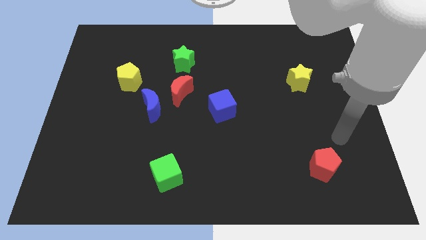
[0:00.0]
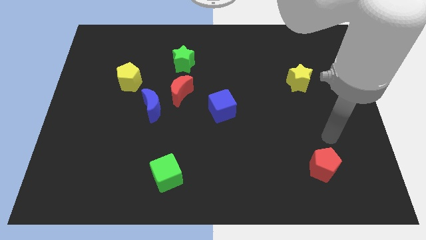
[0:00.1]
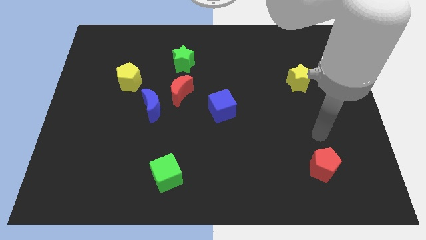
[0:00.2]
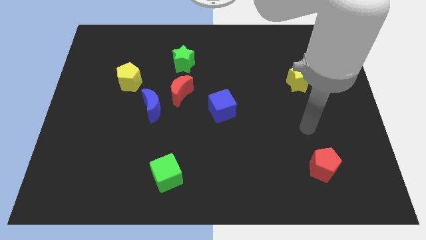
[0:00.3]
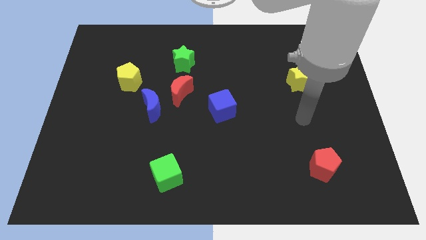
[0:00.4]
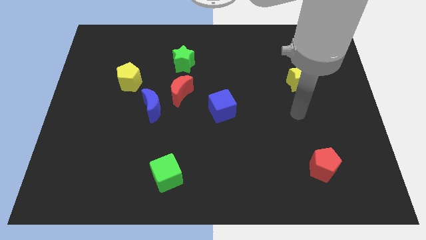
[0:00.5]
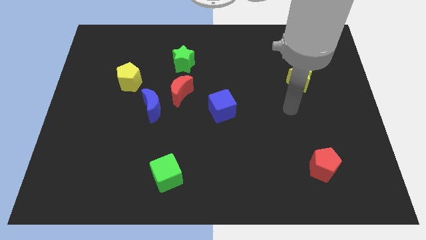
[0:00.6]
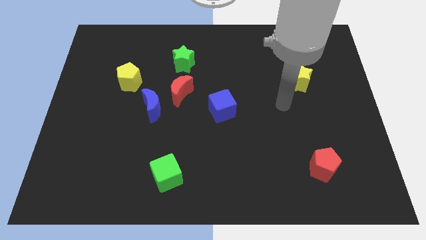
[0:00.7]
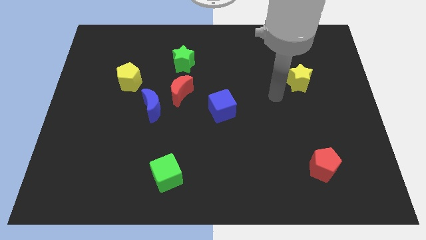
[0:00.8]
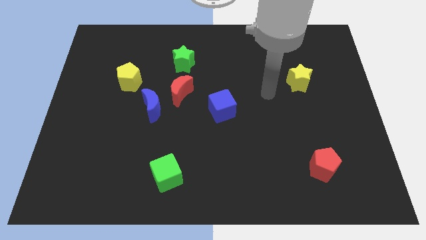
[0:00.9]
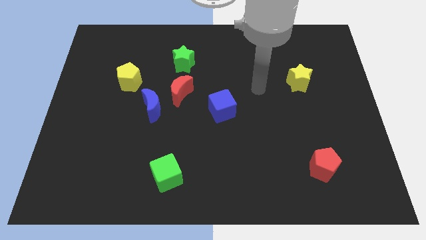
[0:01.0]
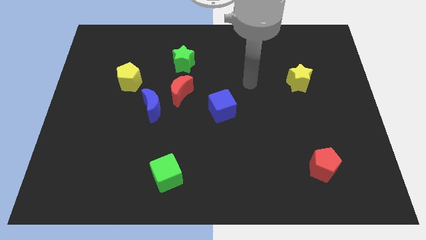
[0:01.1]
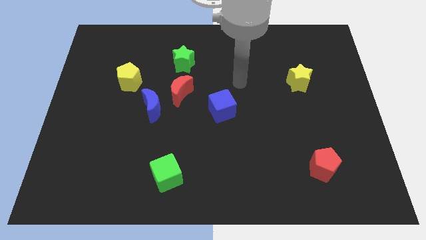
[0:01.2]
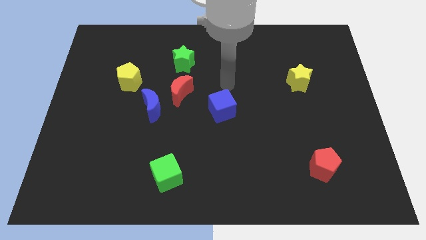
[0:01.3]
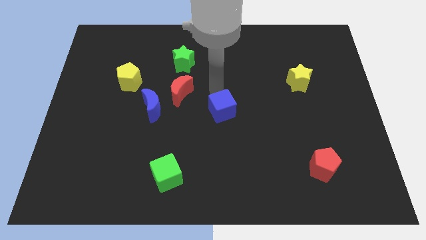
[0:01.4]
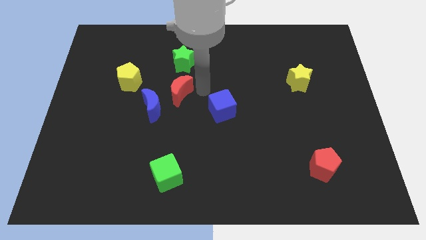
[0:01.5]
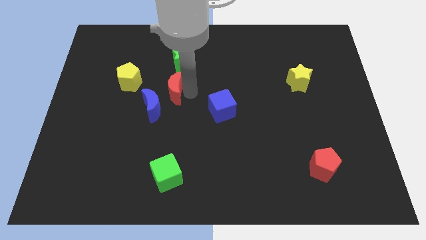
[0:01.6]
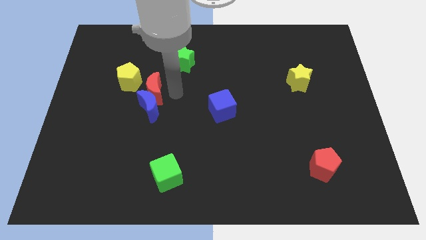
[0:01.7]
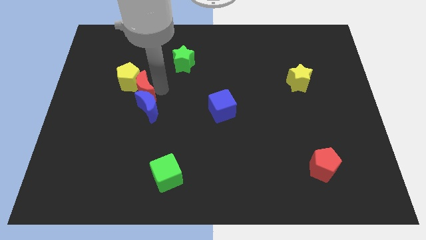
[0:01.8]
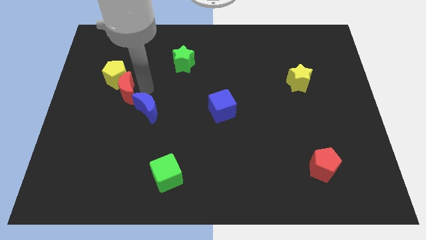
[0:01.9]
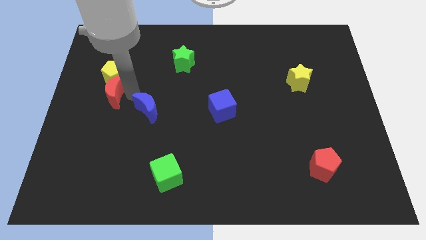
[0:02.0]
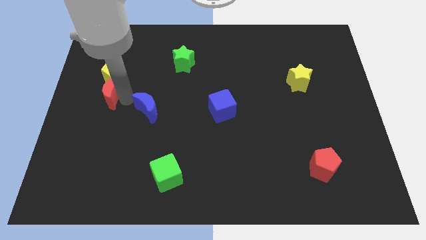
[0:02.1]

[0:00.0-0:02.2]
move the blue moon away from the red moon

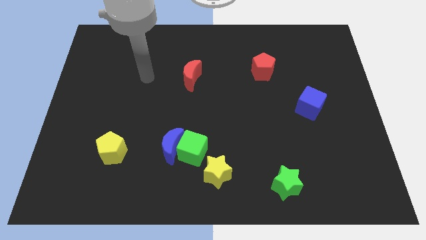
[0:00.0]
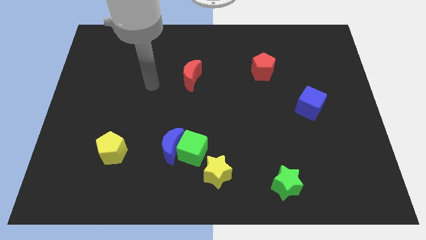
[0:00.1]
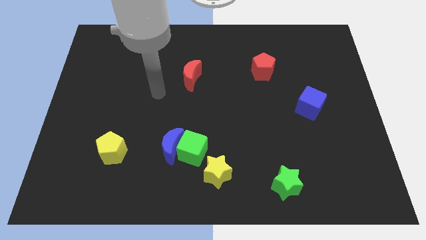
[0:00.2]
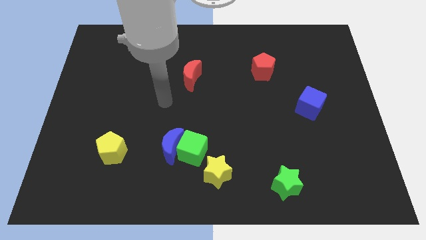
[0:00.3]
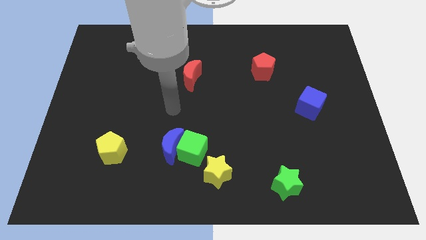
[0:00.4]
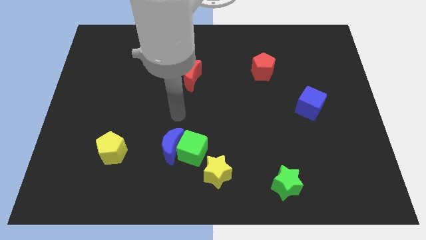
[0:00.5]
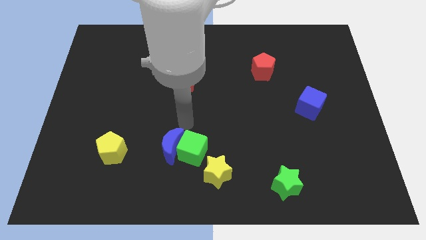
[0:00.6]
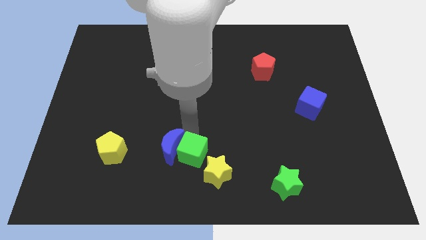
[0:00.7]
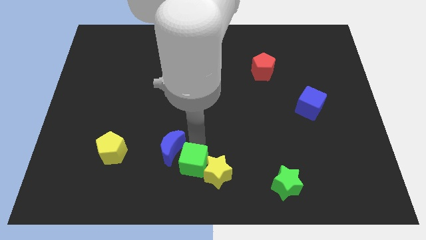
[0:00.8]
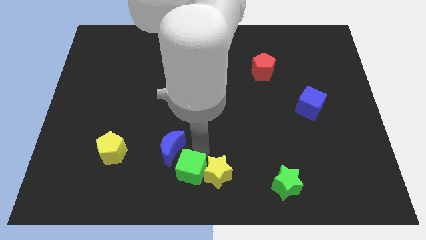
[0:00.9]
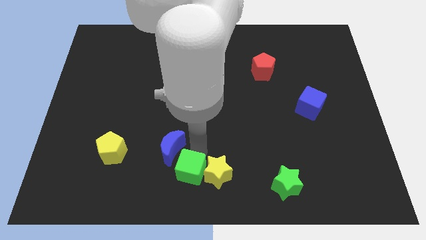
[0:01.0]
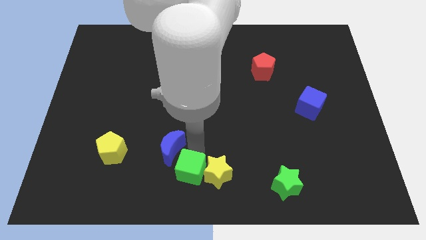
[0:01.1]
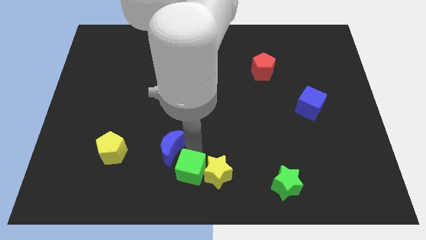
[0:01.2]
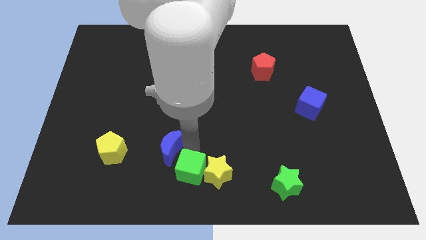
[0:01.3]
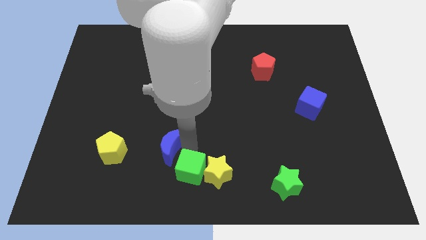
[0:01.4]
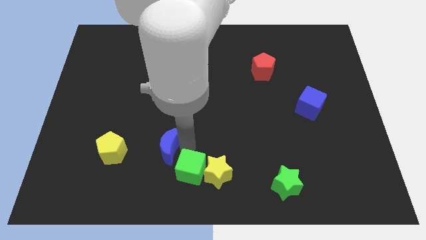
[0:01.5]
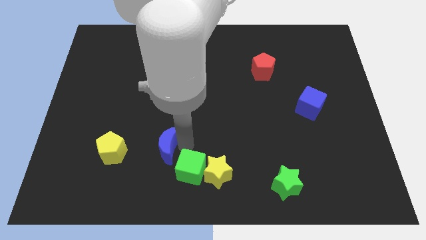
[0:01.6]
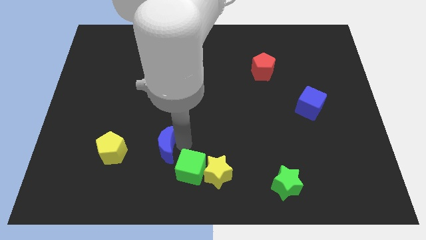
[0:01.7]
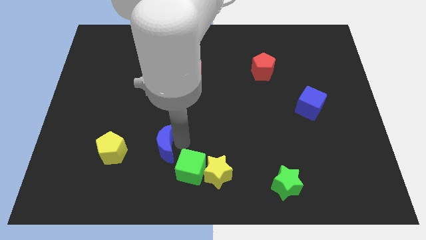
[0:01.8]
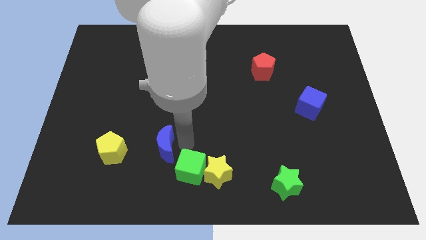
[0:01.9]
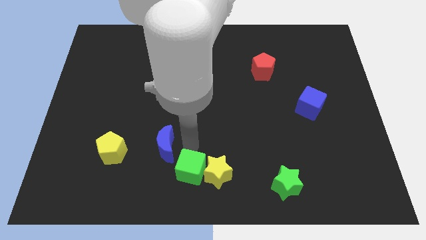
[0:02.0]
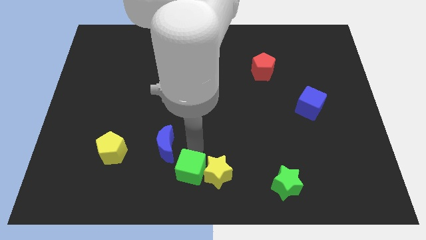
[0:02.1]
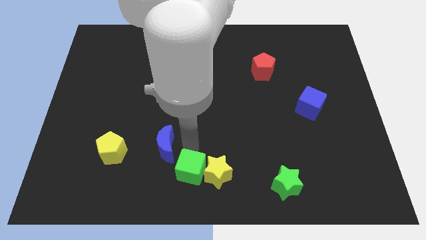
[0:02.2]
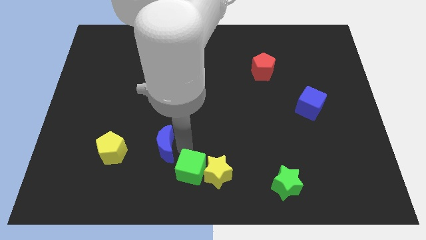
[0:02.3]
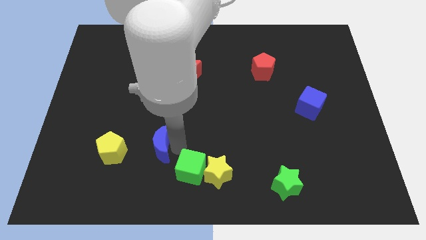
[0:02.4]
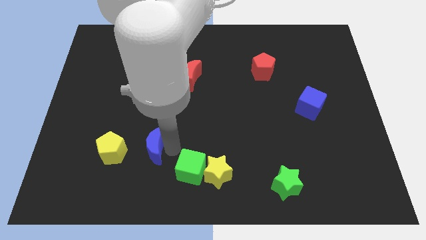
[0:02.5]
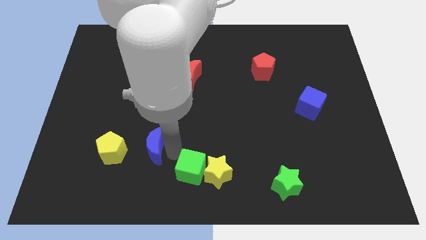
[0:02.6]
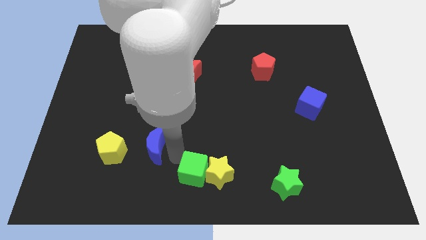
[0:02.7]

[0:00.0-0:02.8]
pull the blue moon apart from the green cube

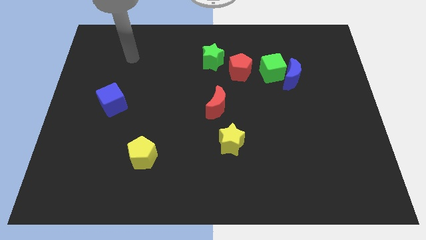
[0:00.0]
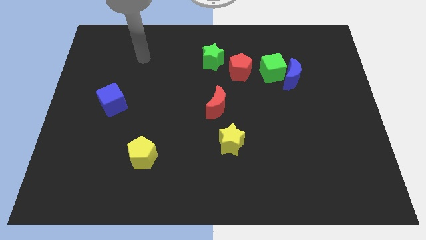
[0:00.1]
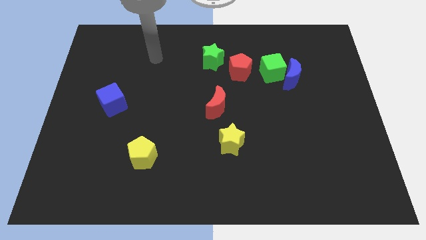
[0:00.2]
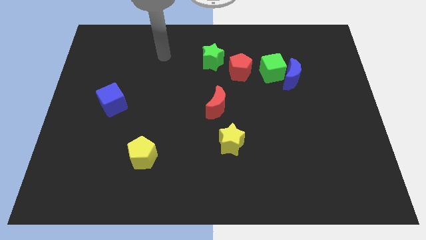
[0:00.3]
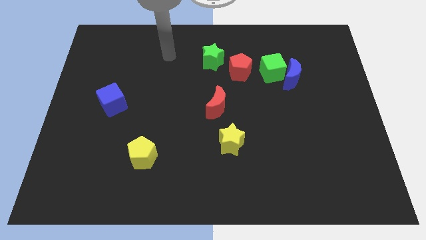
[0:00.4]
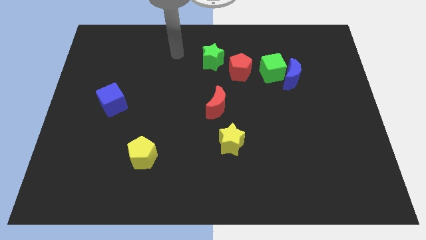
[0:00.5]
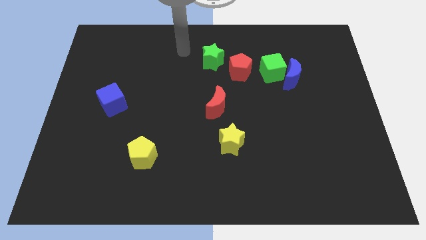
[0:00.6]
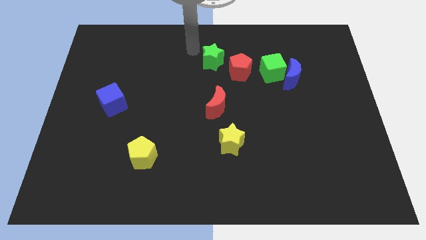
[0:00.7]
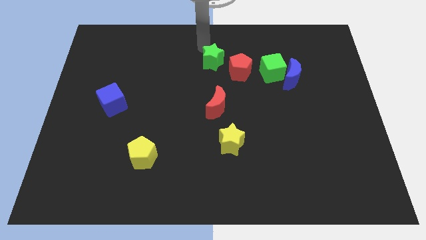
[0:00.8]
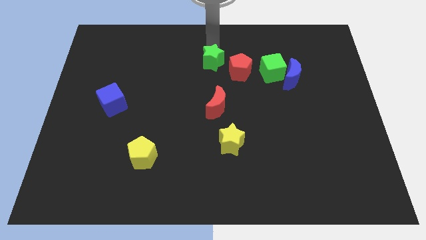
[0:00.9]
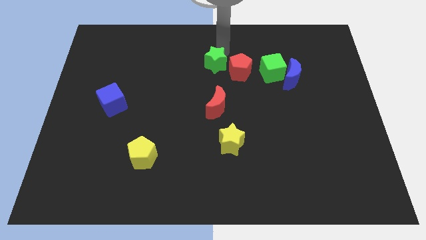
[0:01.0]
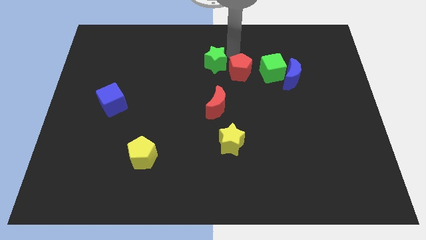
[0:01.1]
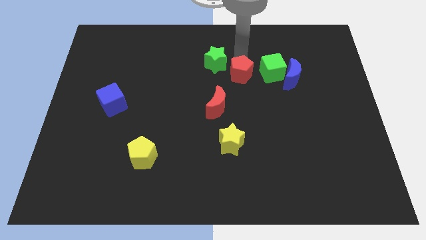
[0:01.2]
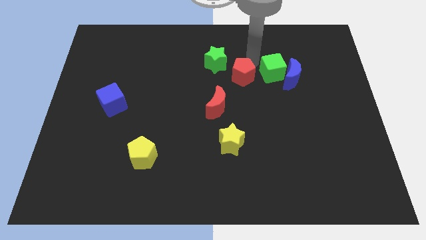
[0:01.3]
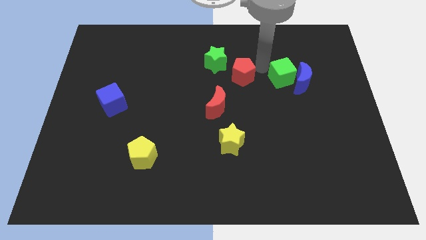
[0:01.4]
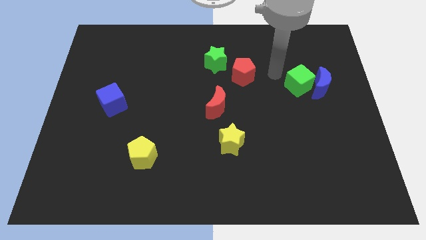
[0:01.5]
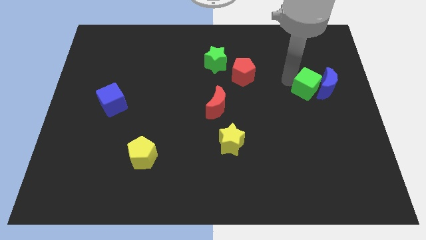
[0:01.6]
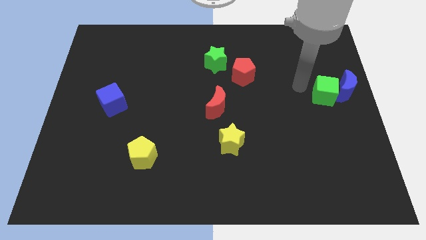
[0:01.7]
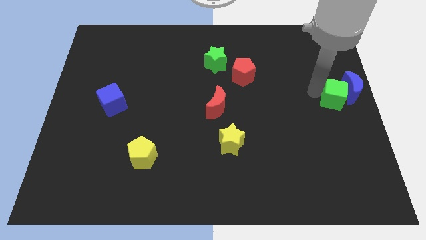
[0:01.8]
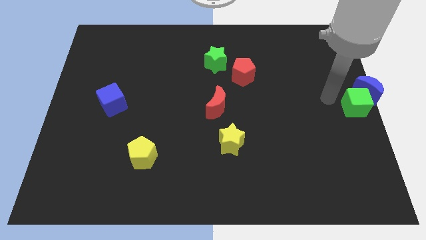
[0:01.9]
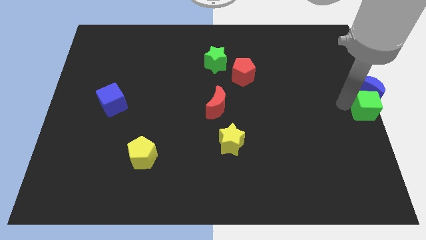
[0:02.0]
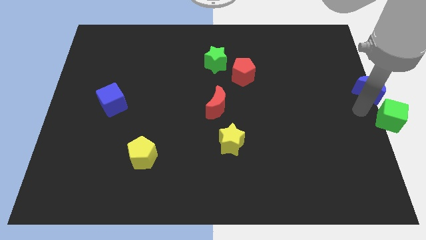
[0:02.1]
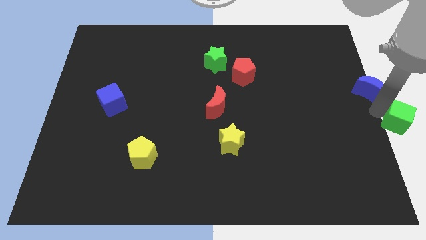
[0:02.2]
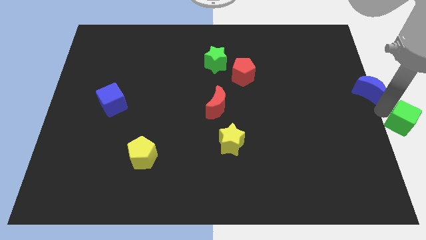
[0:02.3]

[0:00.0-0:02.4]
move the blue moon away from the green cube

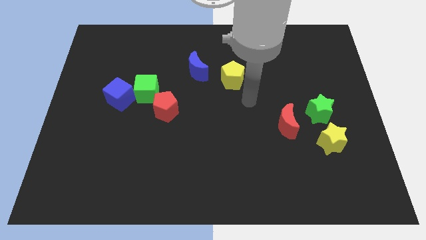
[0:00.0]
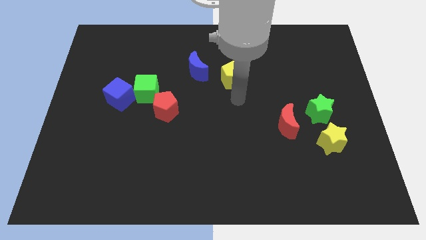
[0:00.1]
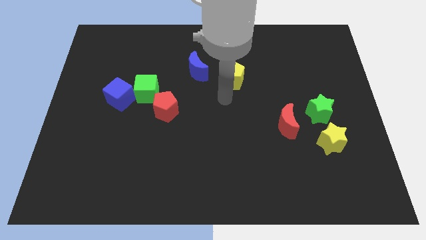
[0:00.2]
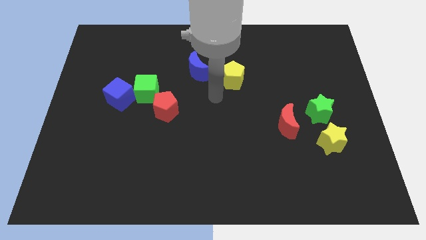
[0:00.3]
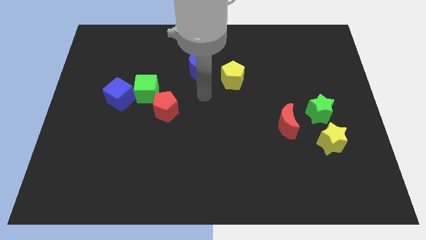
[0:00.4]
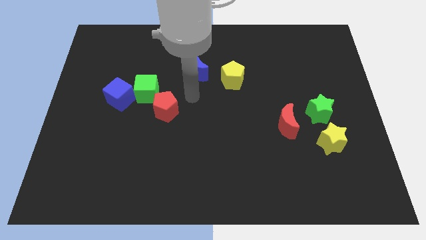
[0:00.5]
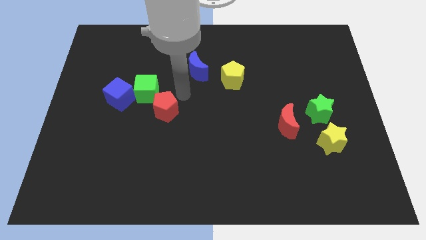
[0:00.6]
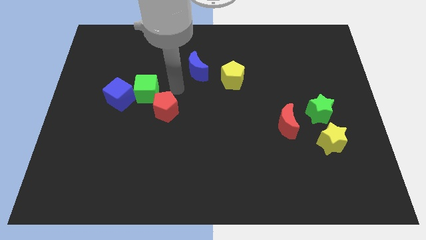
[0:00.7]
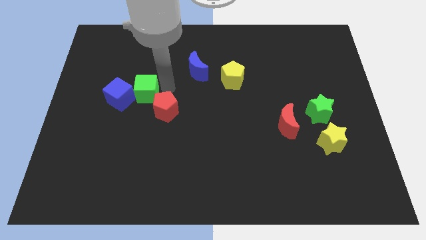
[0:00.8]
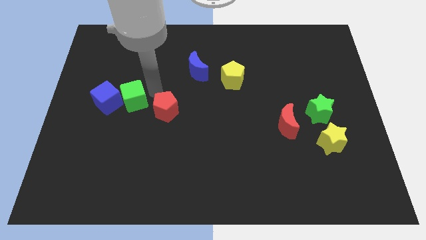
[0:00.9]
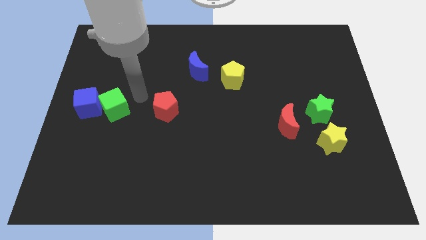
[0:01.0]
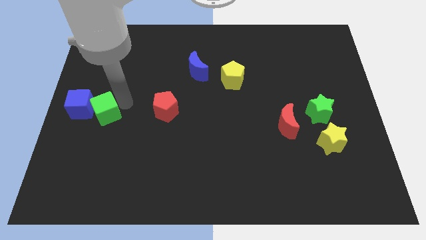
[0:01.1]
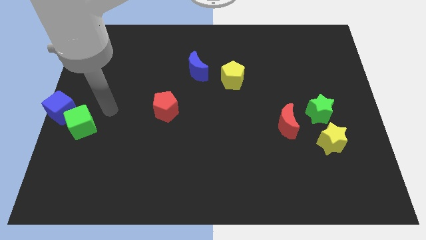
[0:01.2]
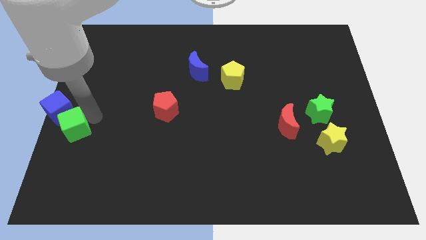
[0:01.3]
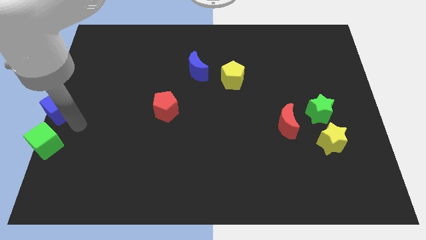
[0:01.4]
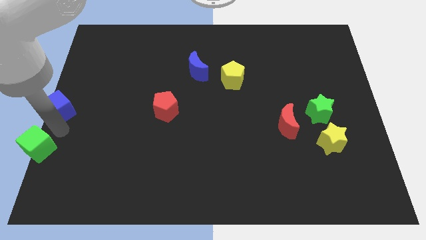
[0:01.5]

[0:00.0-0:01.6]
pull the blue cube apart from the green cube

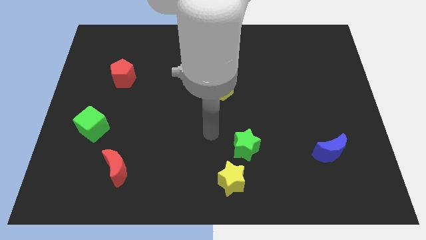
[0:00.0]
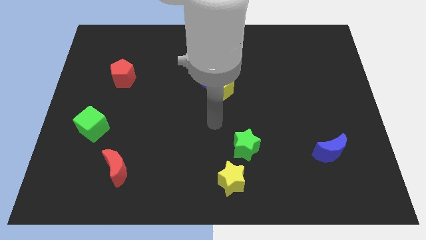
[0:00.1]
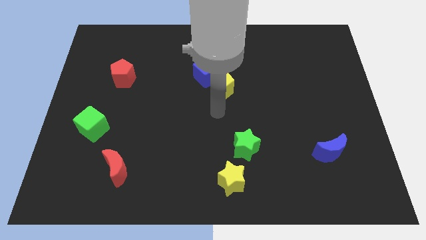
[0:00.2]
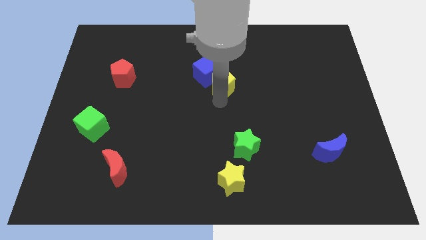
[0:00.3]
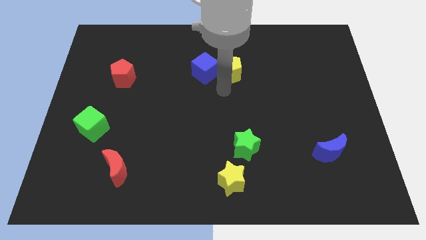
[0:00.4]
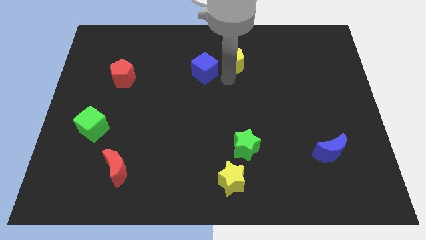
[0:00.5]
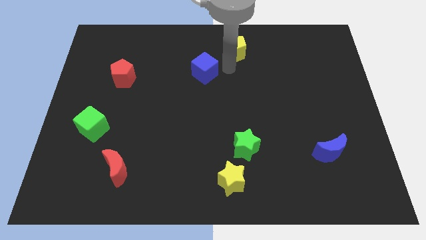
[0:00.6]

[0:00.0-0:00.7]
pull the blue cube apart from the yellow pentagon
